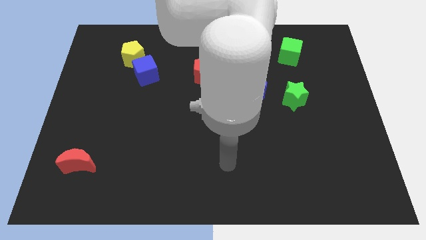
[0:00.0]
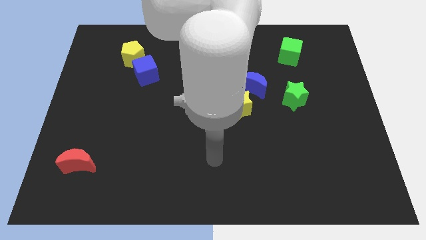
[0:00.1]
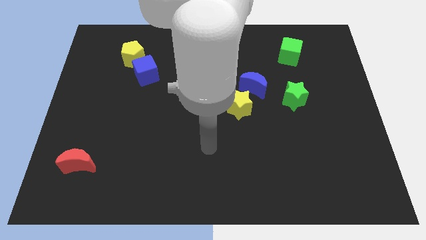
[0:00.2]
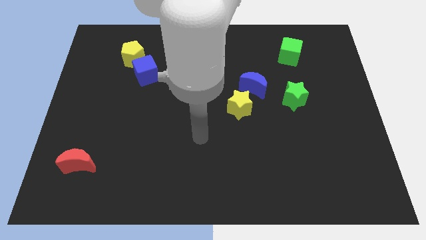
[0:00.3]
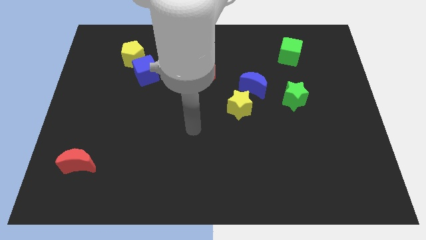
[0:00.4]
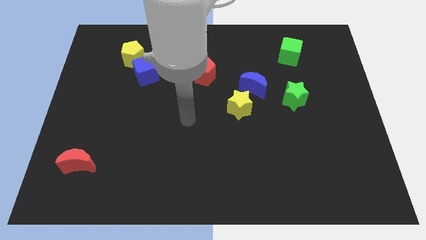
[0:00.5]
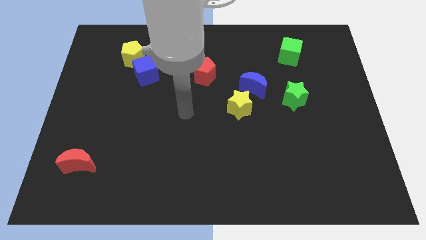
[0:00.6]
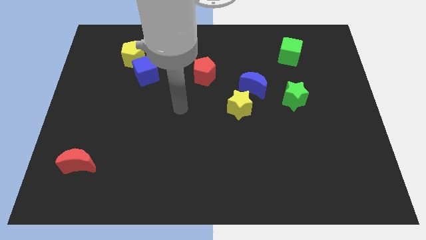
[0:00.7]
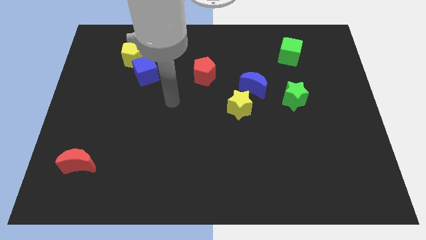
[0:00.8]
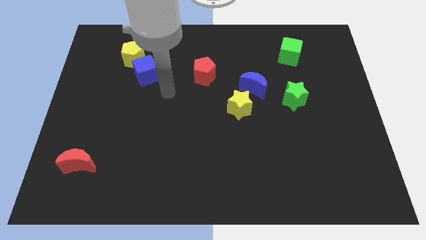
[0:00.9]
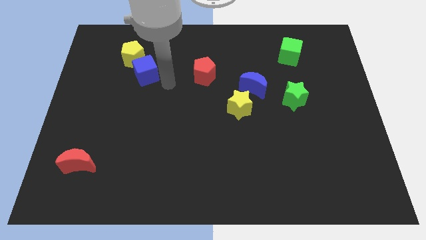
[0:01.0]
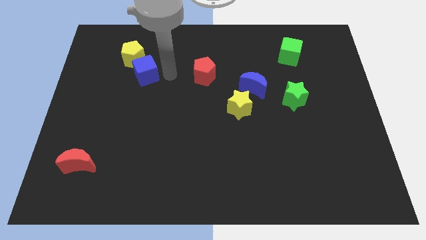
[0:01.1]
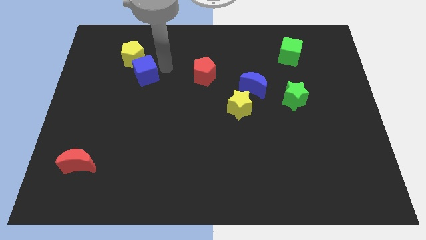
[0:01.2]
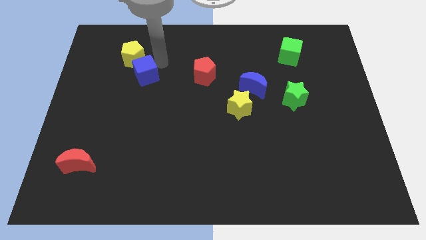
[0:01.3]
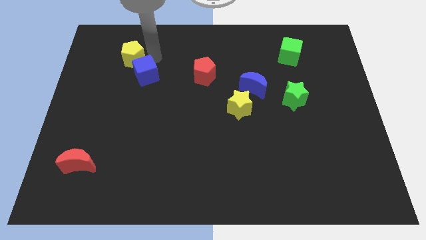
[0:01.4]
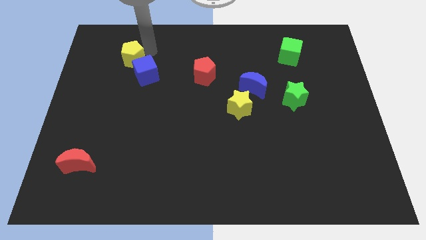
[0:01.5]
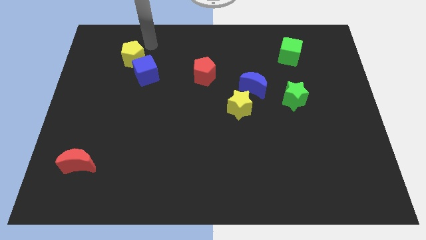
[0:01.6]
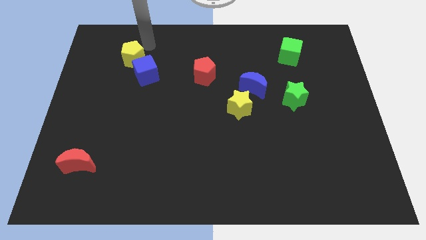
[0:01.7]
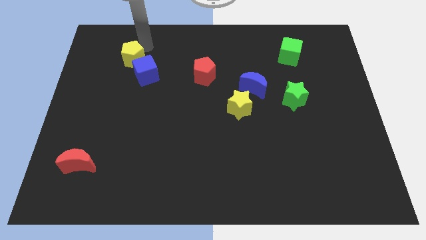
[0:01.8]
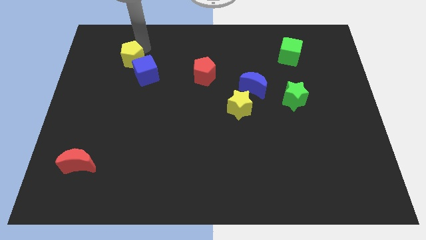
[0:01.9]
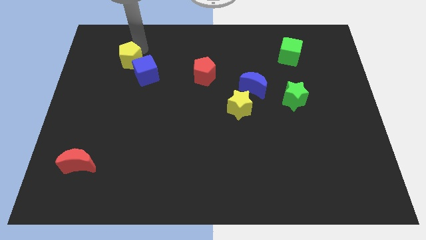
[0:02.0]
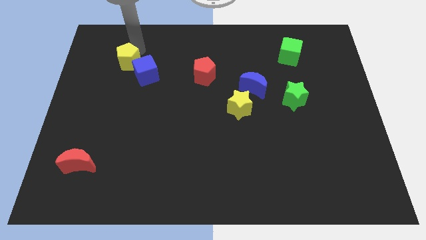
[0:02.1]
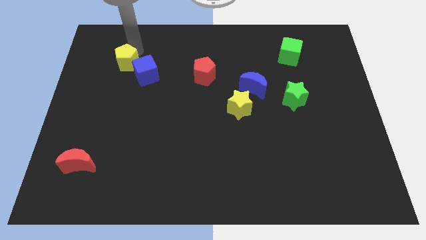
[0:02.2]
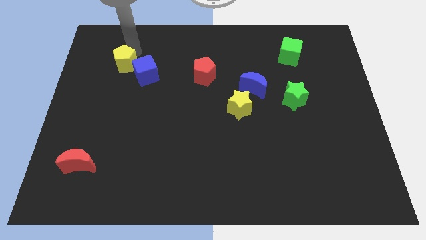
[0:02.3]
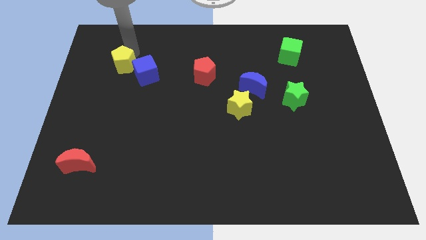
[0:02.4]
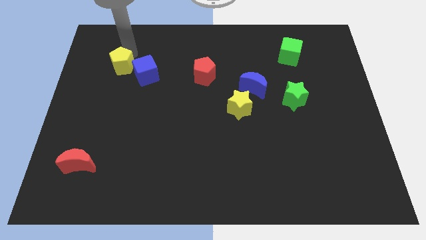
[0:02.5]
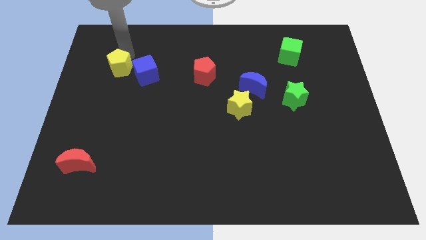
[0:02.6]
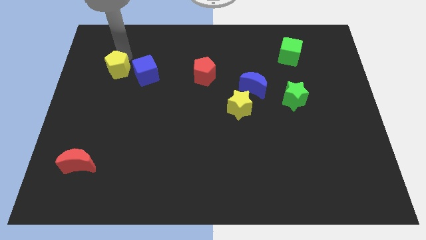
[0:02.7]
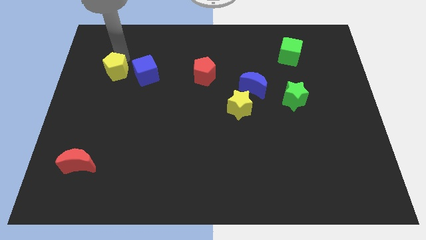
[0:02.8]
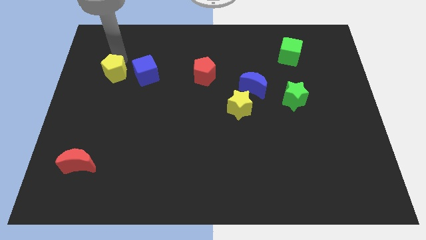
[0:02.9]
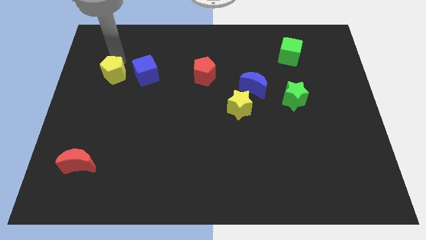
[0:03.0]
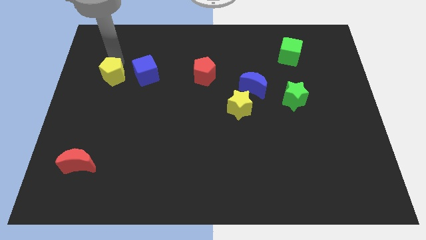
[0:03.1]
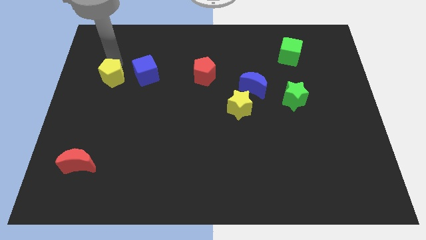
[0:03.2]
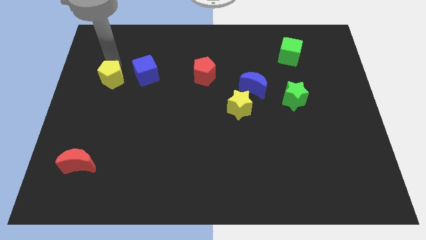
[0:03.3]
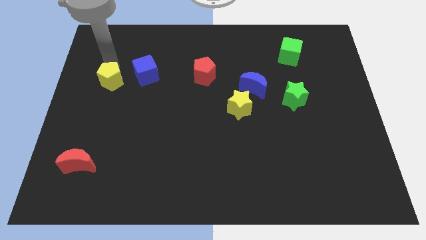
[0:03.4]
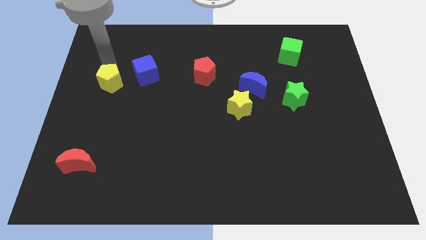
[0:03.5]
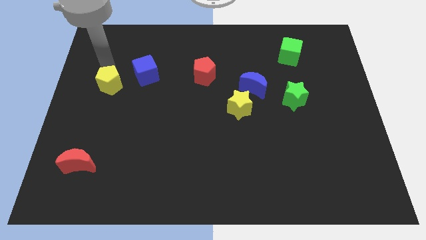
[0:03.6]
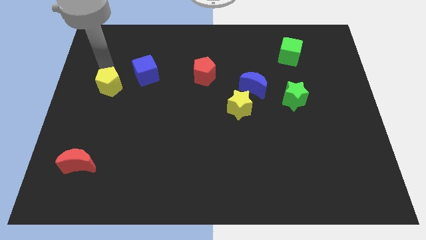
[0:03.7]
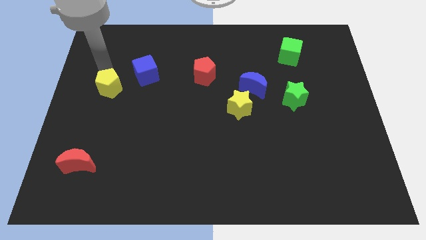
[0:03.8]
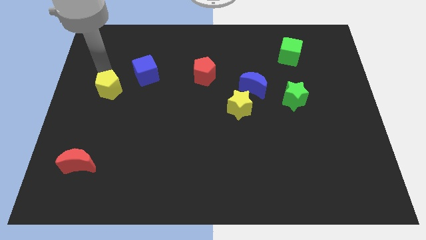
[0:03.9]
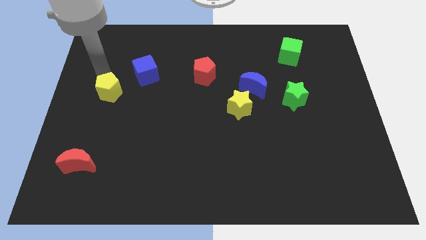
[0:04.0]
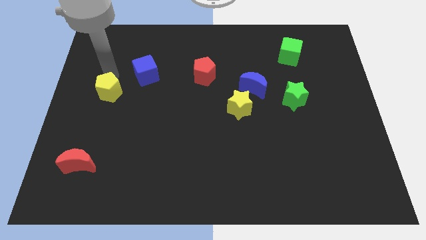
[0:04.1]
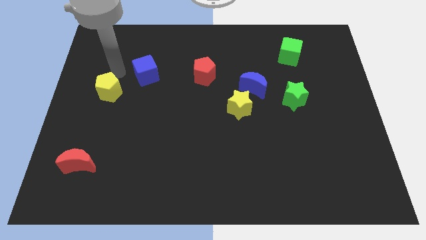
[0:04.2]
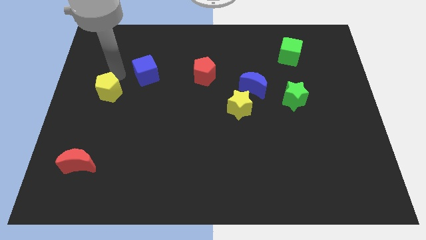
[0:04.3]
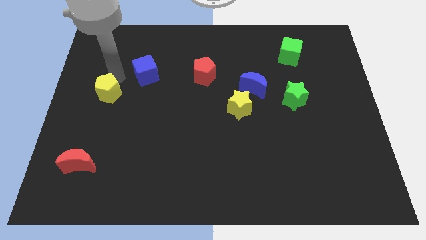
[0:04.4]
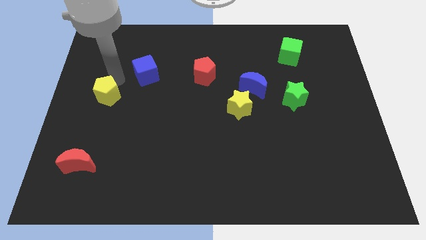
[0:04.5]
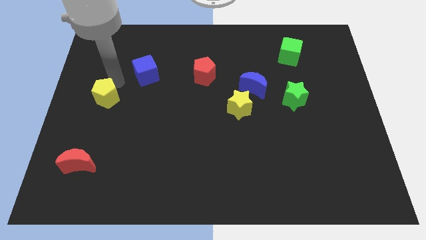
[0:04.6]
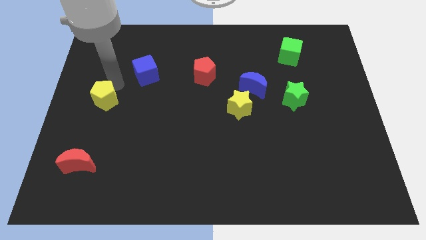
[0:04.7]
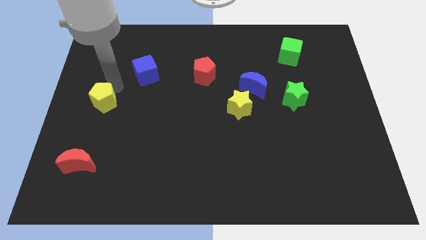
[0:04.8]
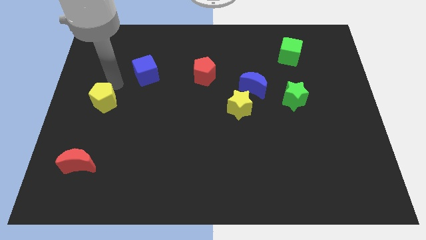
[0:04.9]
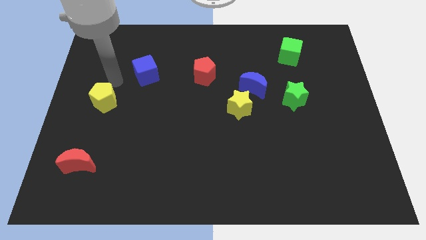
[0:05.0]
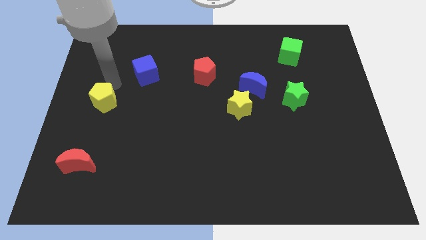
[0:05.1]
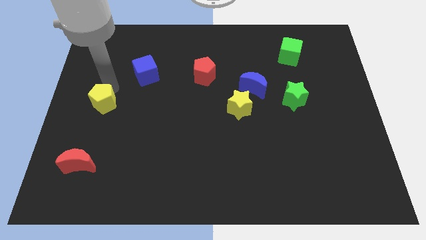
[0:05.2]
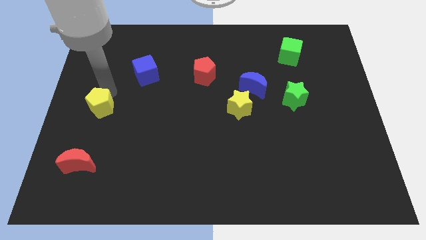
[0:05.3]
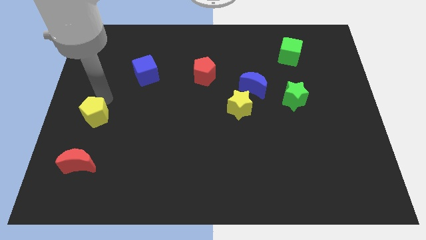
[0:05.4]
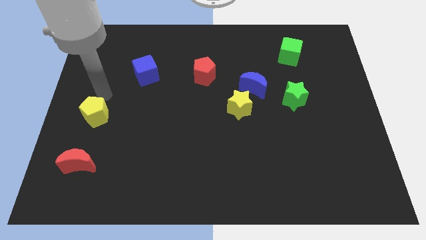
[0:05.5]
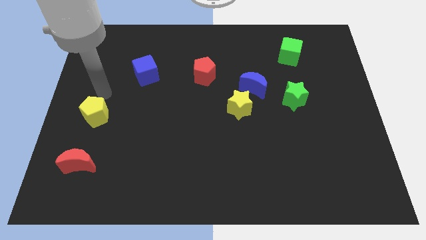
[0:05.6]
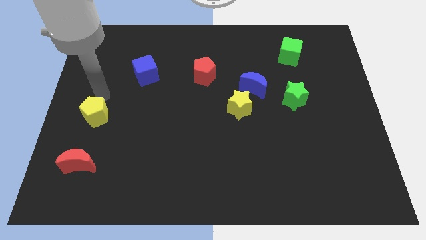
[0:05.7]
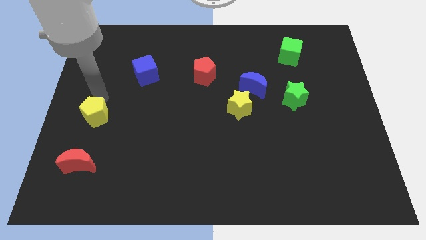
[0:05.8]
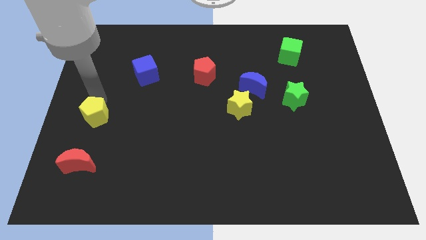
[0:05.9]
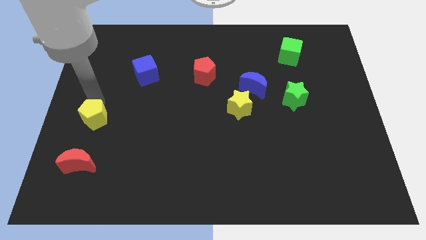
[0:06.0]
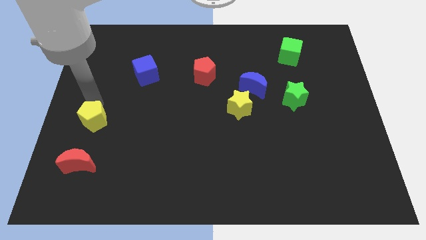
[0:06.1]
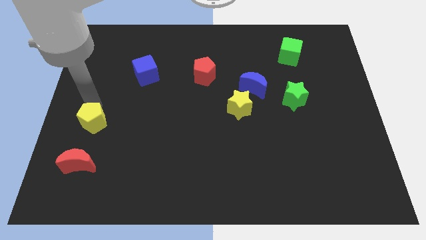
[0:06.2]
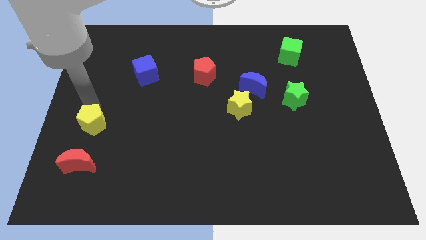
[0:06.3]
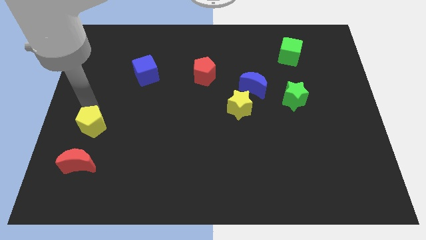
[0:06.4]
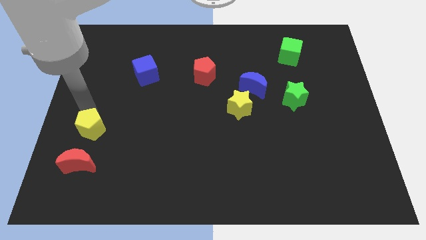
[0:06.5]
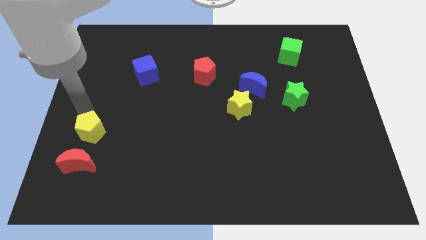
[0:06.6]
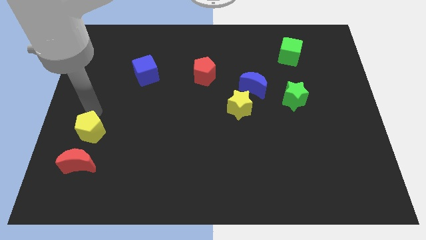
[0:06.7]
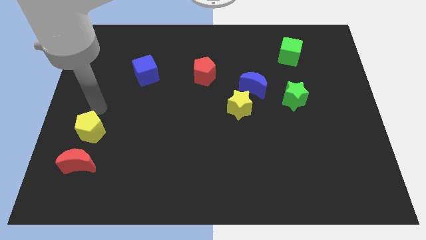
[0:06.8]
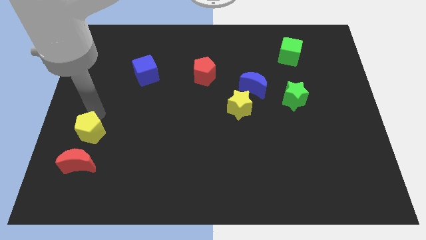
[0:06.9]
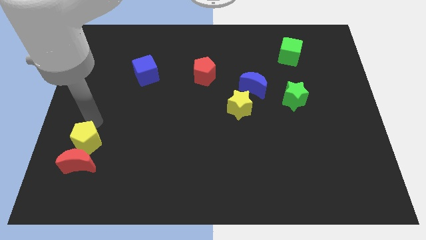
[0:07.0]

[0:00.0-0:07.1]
slide the yellow pentagon towards the red moon
